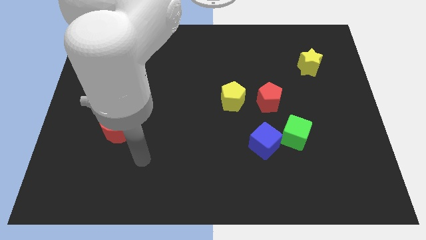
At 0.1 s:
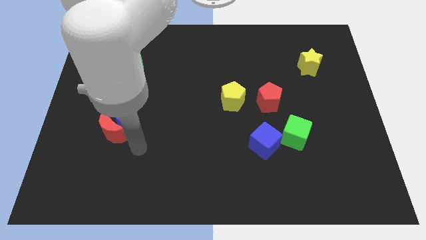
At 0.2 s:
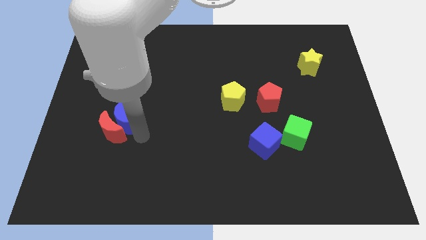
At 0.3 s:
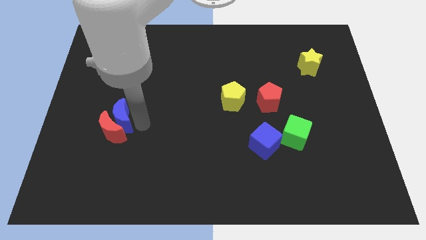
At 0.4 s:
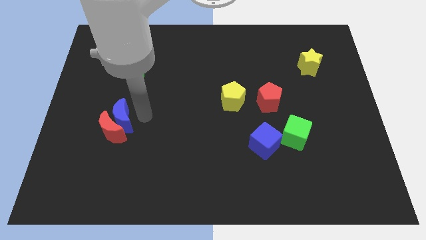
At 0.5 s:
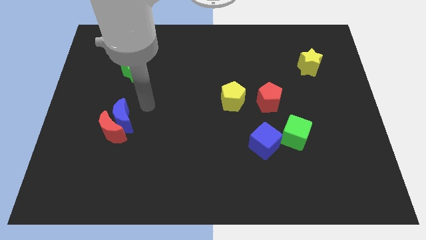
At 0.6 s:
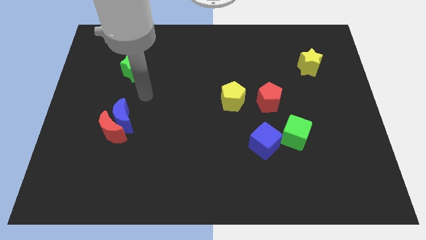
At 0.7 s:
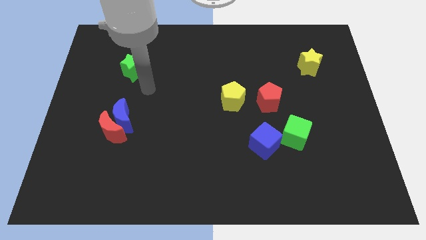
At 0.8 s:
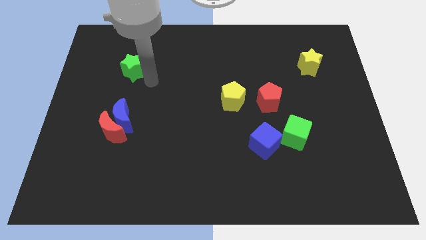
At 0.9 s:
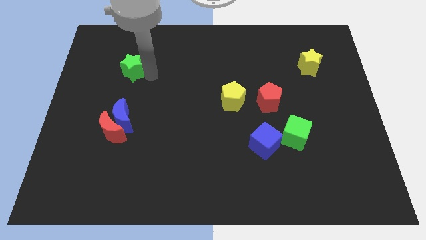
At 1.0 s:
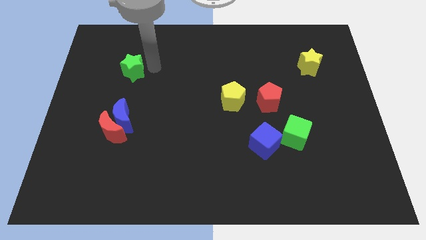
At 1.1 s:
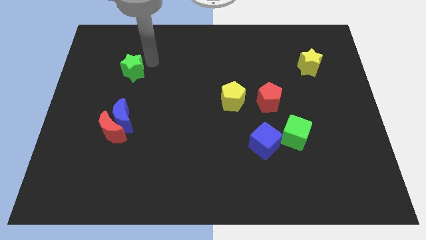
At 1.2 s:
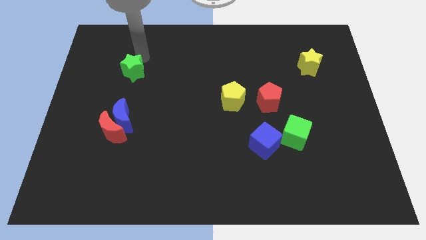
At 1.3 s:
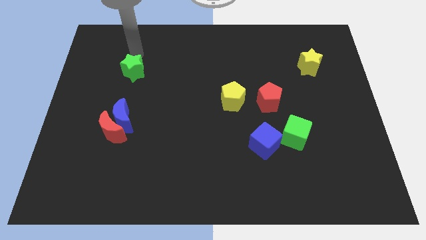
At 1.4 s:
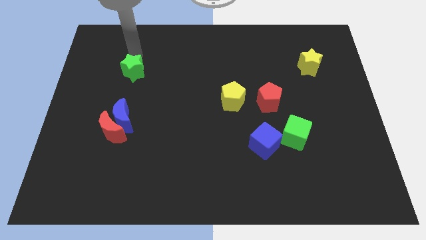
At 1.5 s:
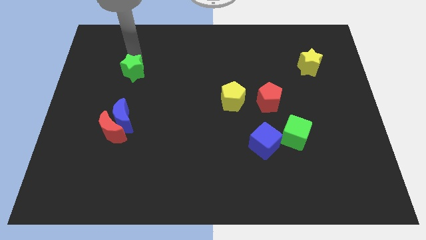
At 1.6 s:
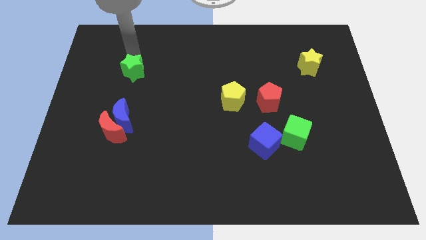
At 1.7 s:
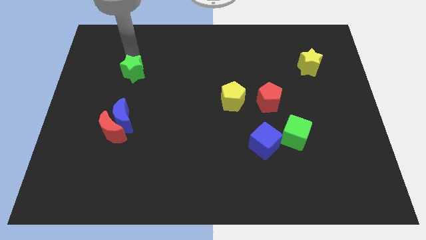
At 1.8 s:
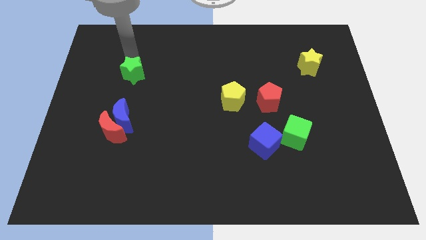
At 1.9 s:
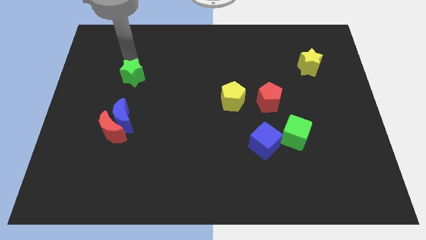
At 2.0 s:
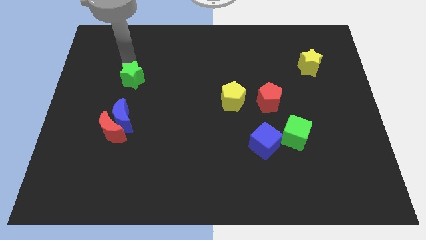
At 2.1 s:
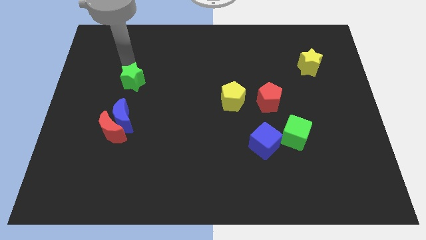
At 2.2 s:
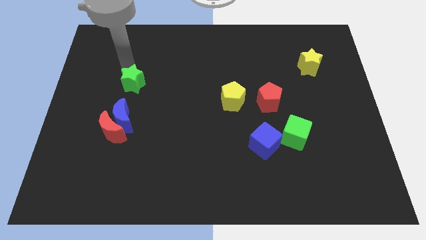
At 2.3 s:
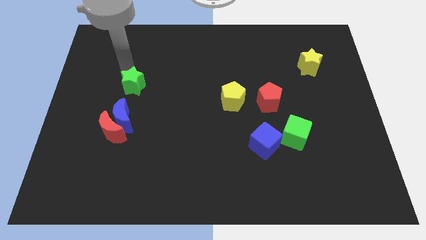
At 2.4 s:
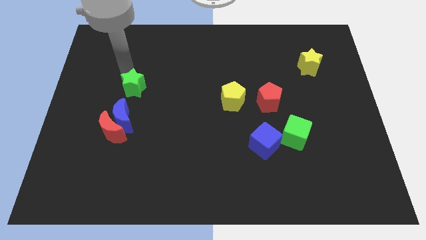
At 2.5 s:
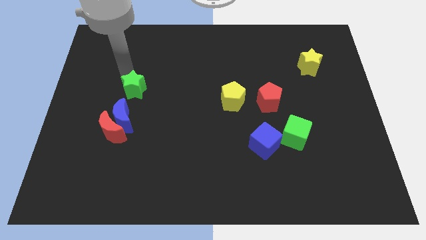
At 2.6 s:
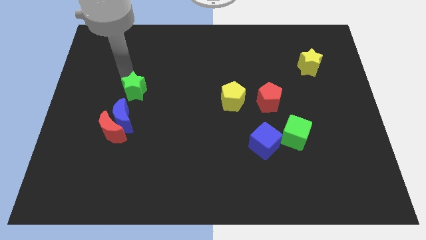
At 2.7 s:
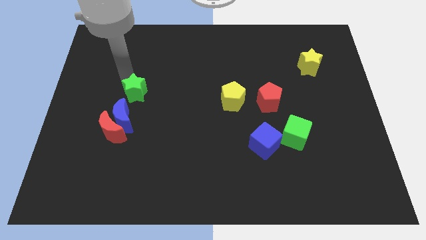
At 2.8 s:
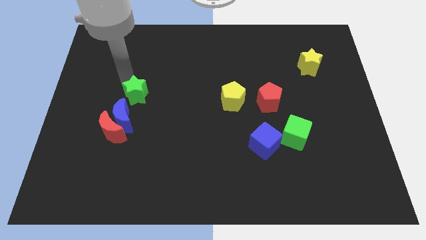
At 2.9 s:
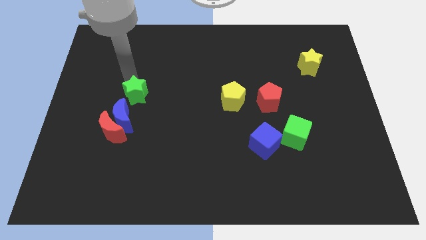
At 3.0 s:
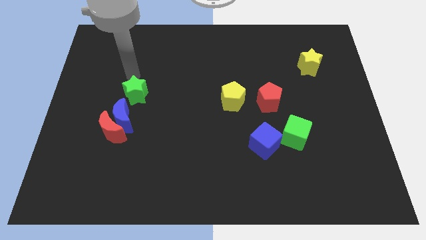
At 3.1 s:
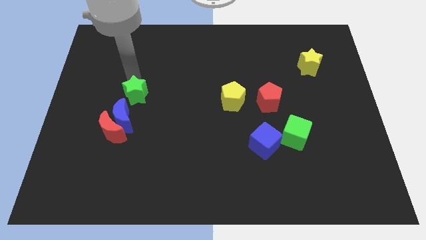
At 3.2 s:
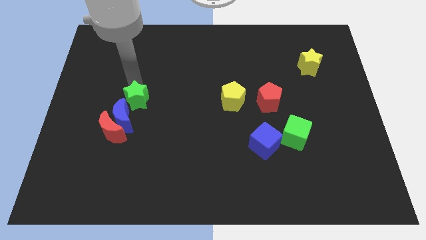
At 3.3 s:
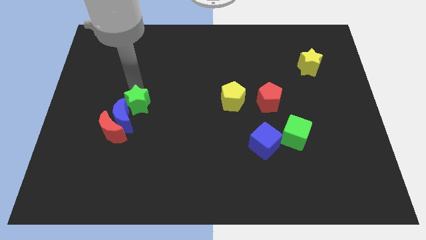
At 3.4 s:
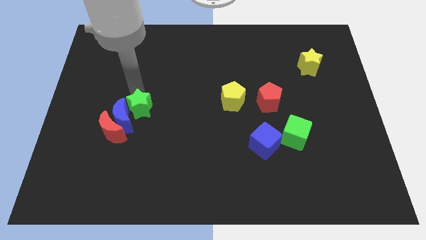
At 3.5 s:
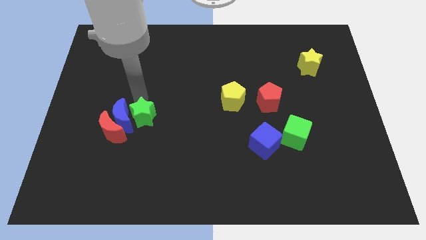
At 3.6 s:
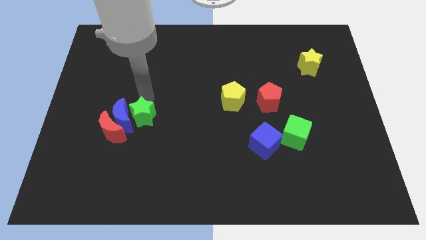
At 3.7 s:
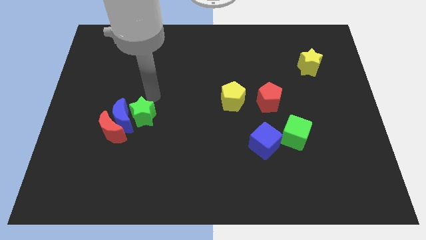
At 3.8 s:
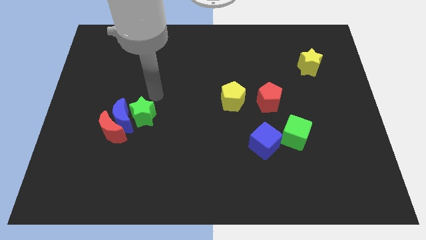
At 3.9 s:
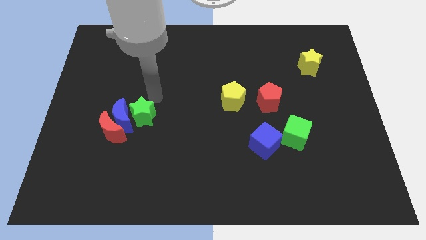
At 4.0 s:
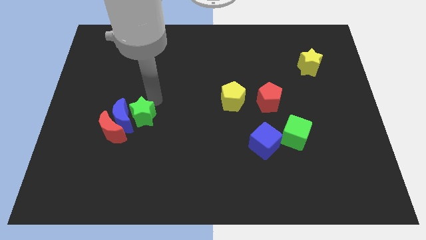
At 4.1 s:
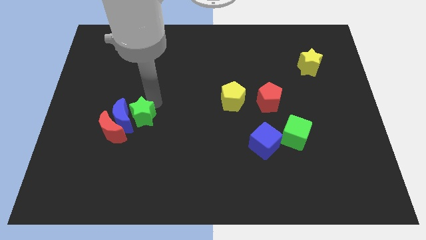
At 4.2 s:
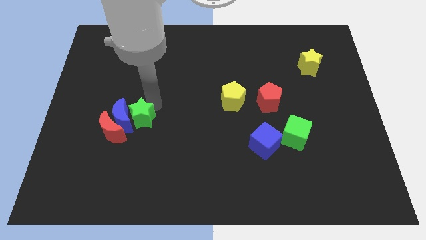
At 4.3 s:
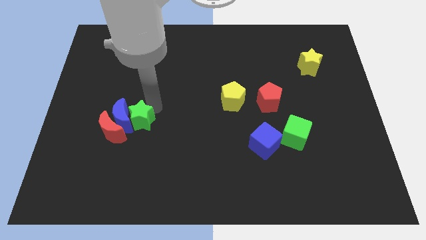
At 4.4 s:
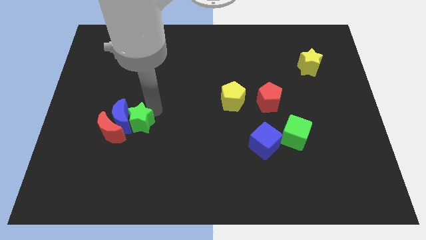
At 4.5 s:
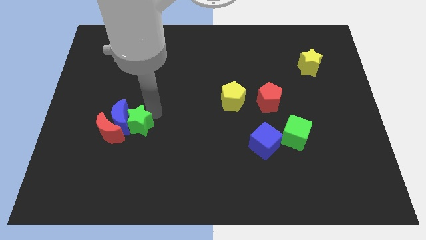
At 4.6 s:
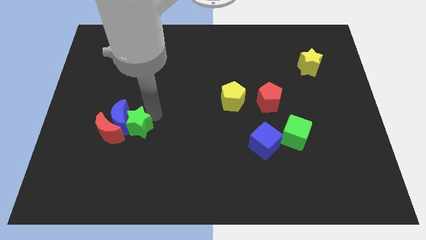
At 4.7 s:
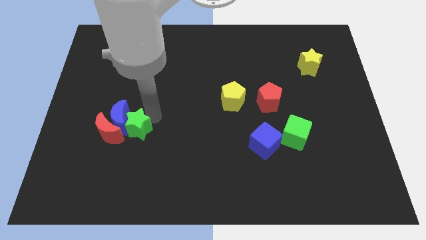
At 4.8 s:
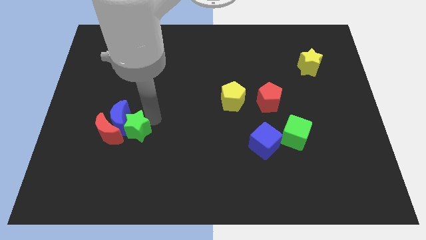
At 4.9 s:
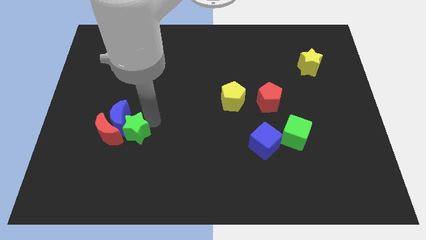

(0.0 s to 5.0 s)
put the green star below the blue moon

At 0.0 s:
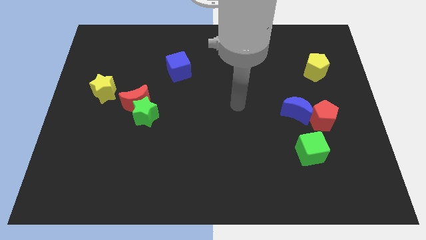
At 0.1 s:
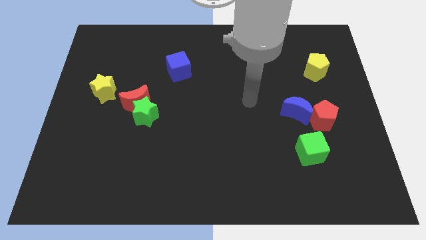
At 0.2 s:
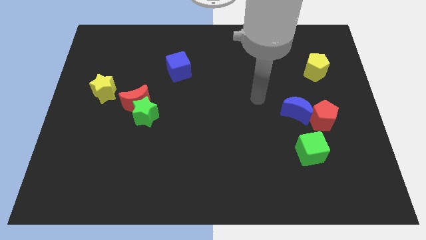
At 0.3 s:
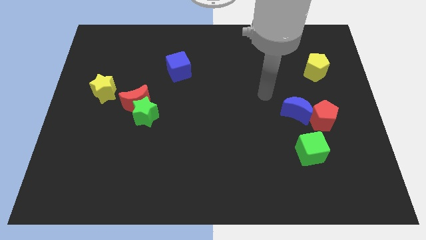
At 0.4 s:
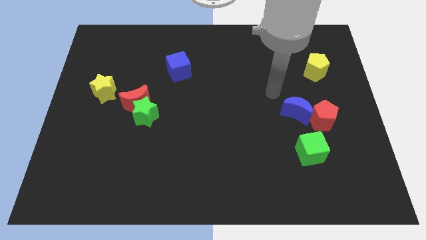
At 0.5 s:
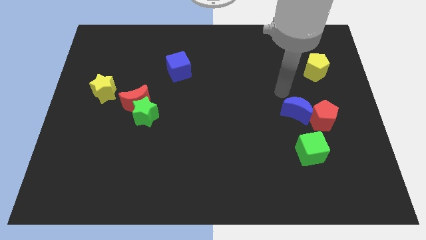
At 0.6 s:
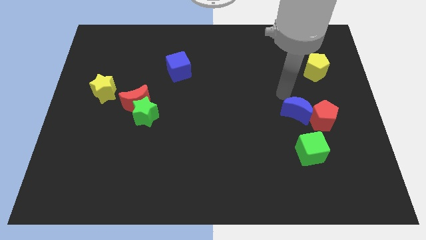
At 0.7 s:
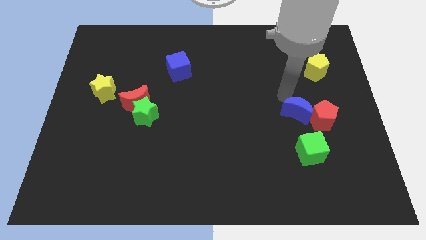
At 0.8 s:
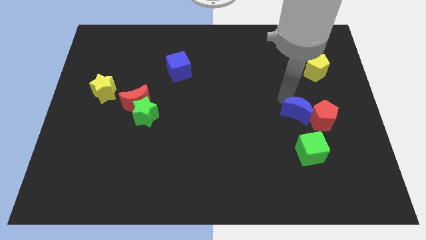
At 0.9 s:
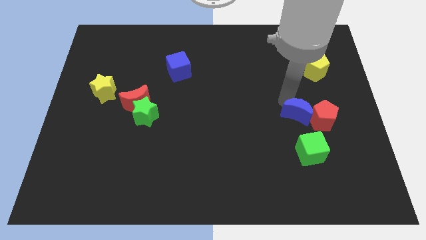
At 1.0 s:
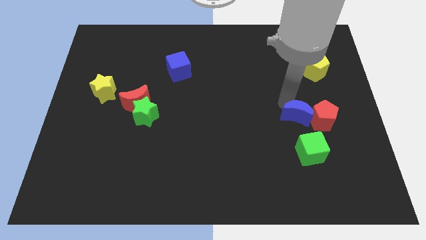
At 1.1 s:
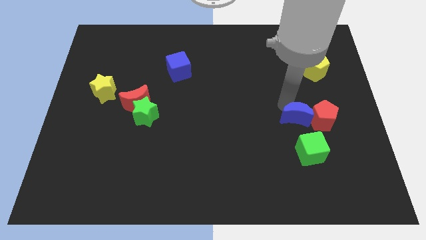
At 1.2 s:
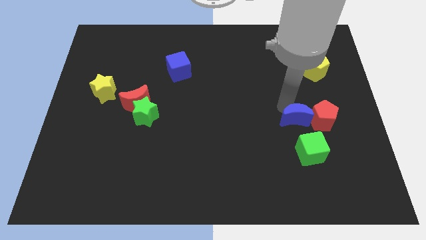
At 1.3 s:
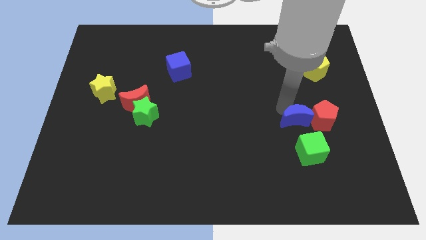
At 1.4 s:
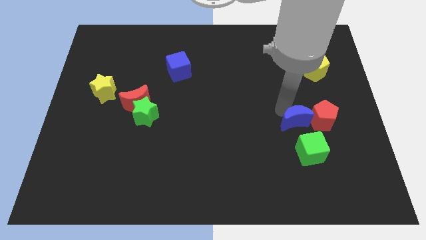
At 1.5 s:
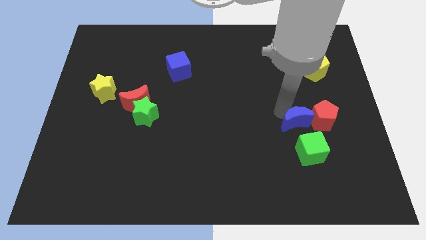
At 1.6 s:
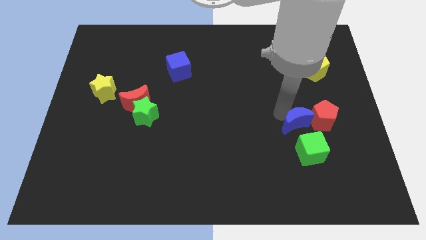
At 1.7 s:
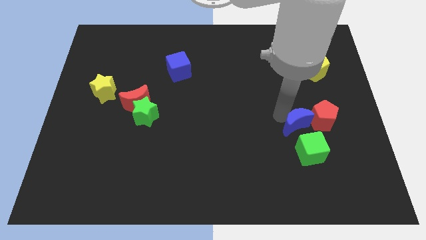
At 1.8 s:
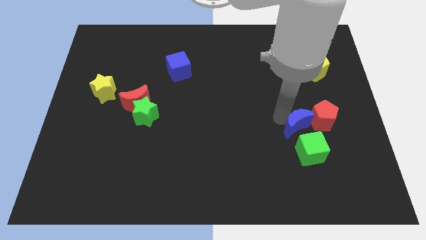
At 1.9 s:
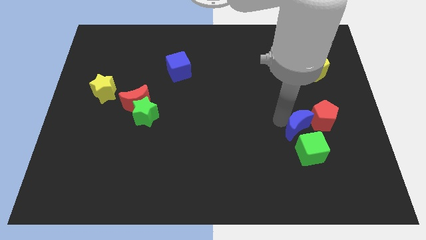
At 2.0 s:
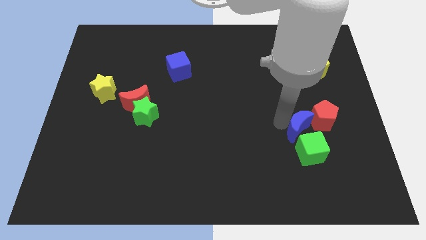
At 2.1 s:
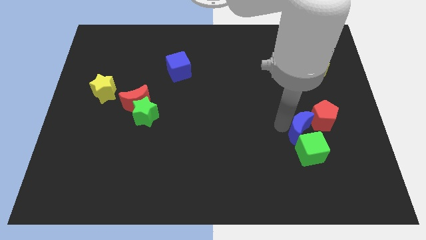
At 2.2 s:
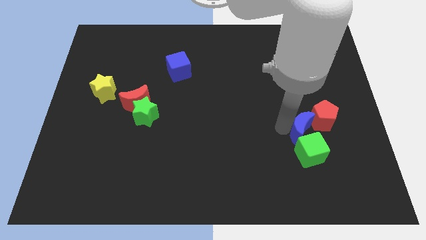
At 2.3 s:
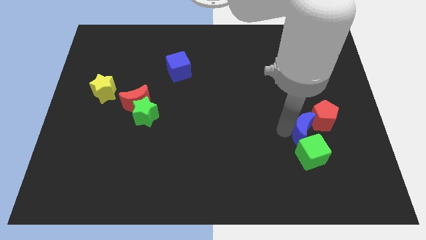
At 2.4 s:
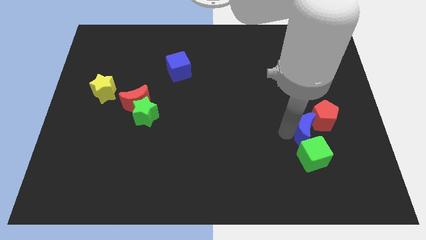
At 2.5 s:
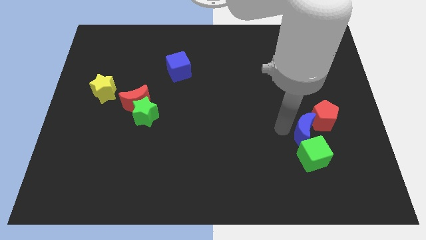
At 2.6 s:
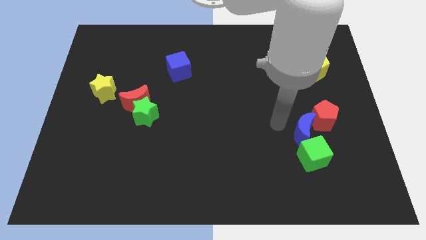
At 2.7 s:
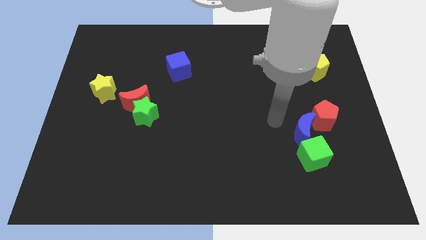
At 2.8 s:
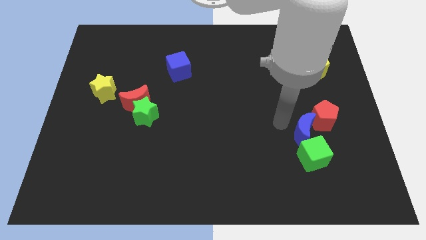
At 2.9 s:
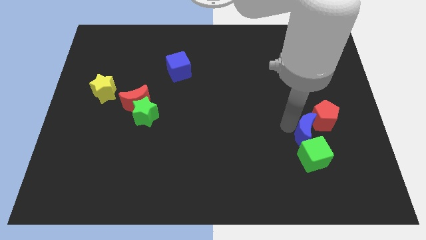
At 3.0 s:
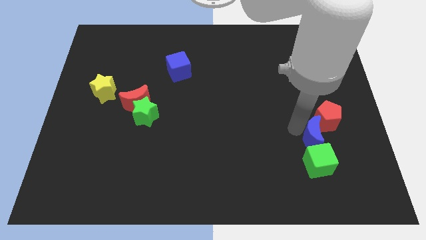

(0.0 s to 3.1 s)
slide the blue moon below the red pentagon
